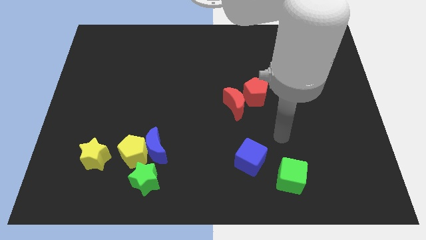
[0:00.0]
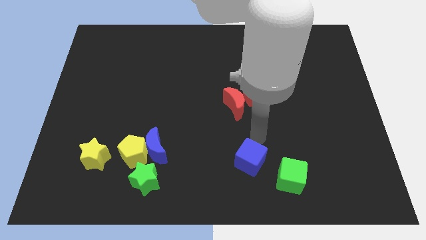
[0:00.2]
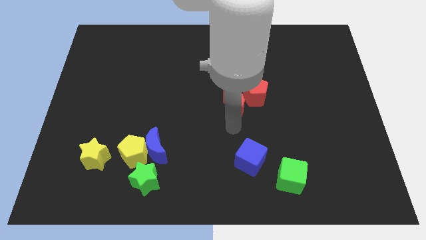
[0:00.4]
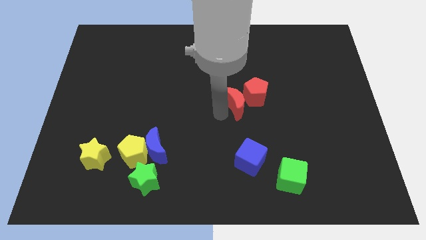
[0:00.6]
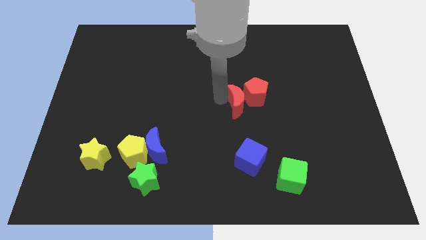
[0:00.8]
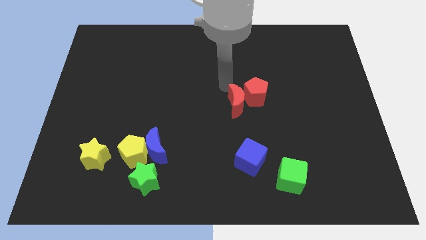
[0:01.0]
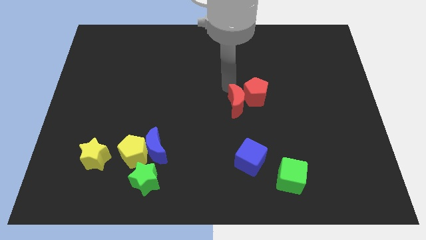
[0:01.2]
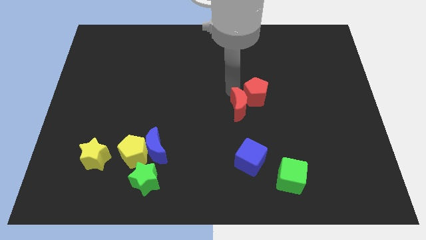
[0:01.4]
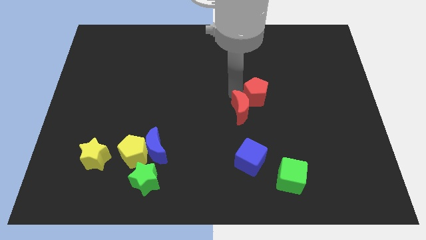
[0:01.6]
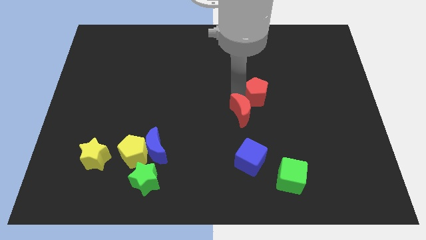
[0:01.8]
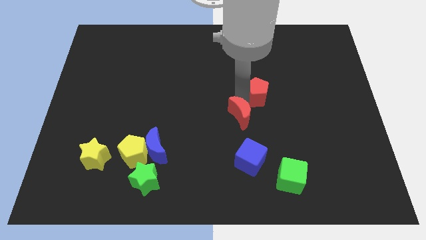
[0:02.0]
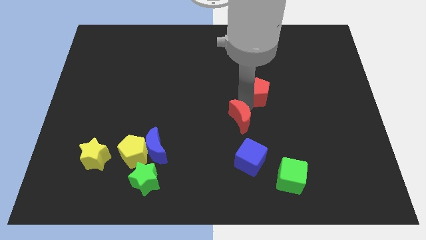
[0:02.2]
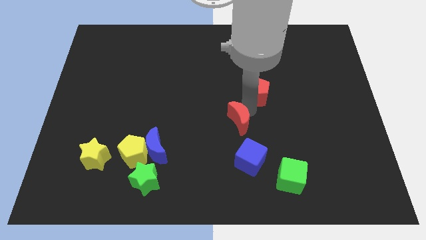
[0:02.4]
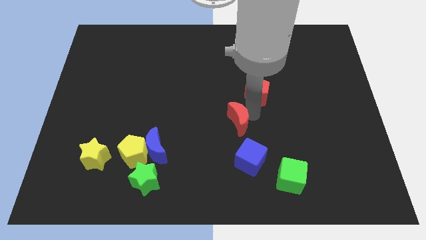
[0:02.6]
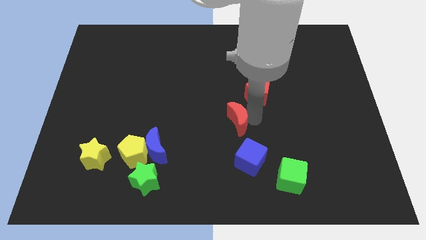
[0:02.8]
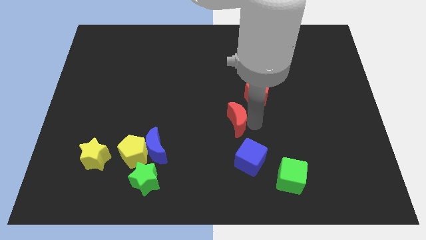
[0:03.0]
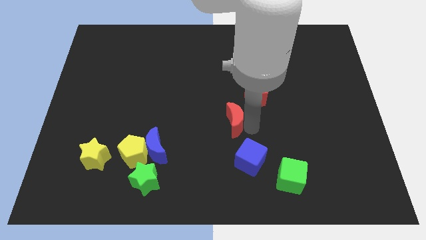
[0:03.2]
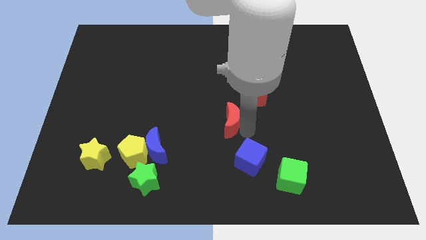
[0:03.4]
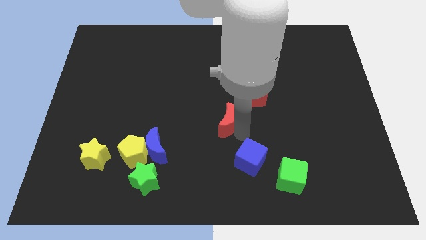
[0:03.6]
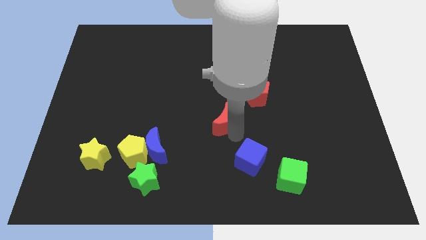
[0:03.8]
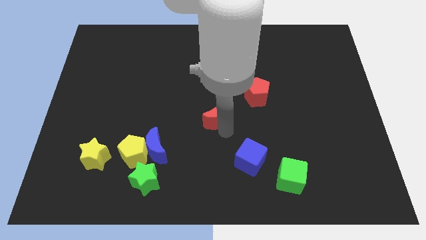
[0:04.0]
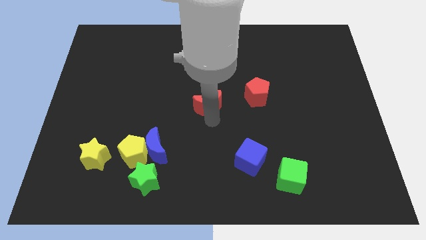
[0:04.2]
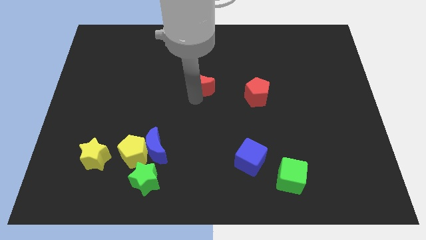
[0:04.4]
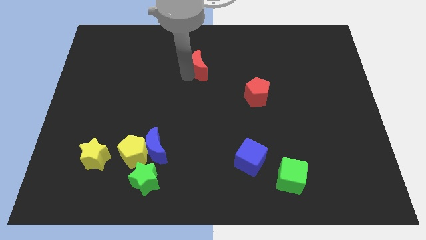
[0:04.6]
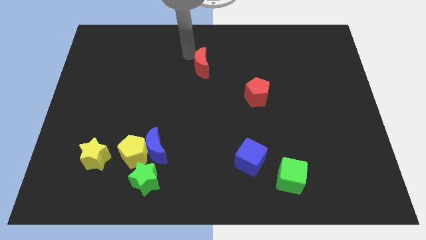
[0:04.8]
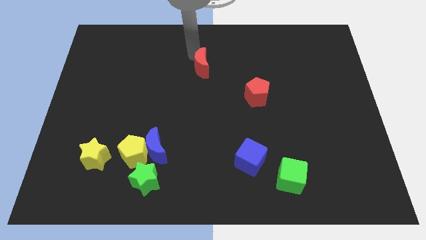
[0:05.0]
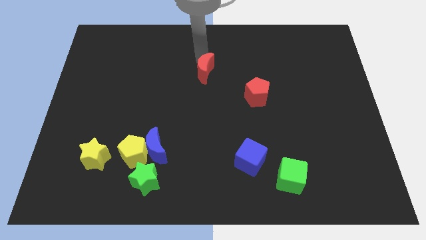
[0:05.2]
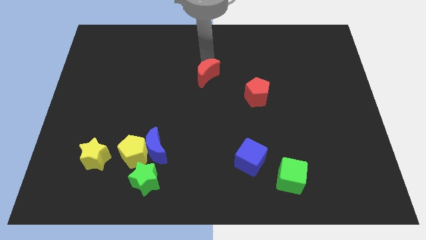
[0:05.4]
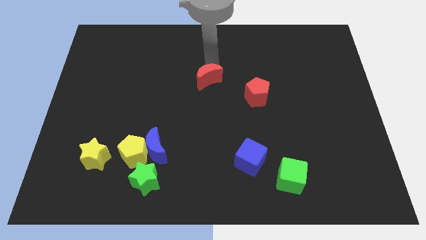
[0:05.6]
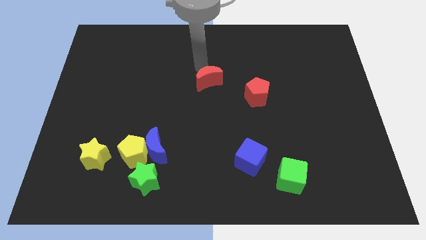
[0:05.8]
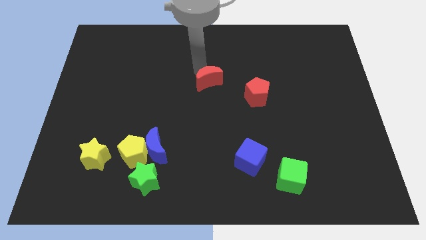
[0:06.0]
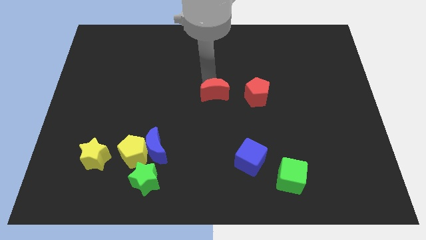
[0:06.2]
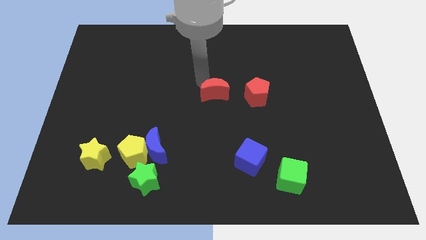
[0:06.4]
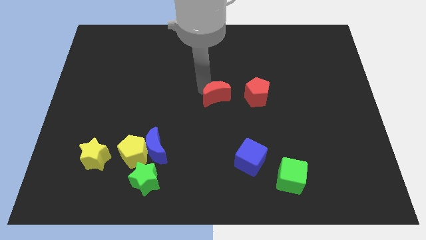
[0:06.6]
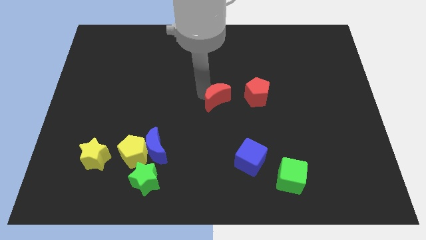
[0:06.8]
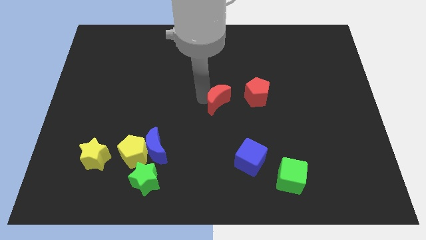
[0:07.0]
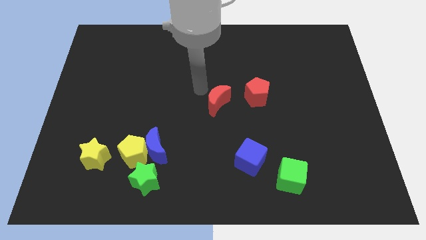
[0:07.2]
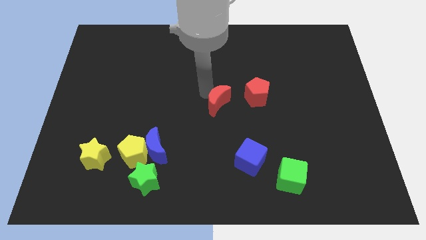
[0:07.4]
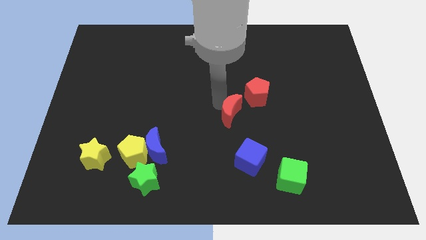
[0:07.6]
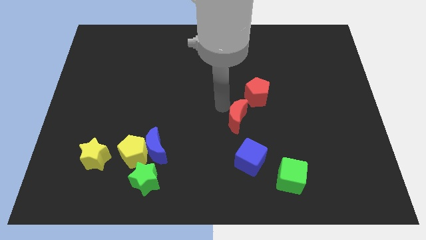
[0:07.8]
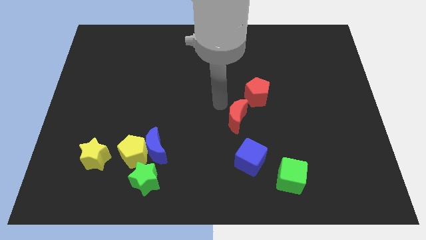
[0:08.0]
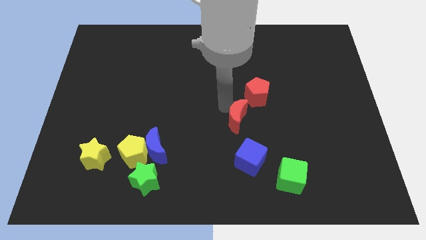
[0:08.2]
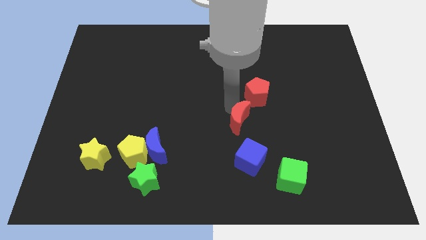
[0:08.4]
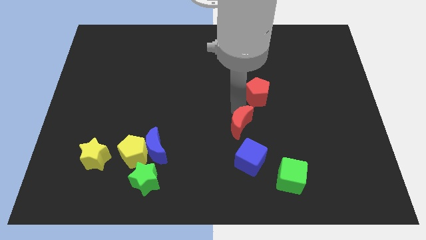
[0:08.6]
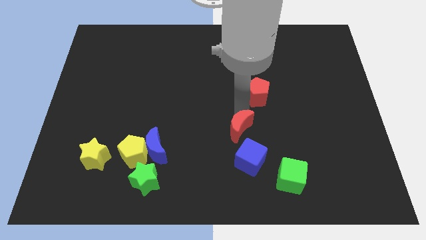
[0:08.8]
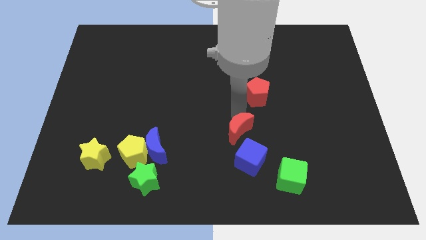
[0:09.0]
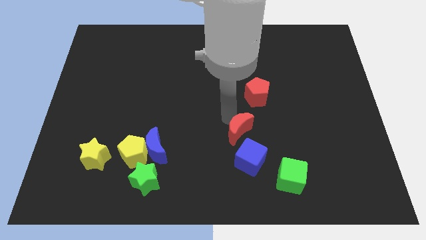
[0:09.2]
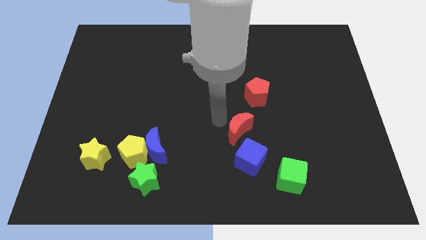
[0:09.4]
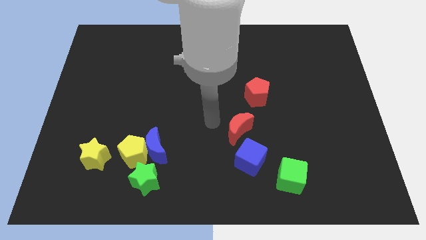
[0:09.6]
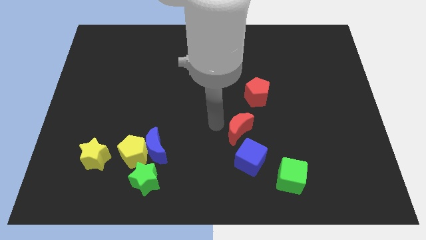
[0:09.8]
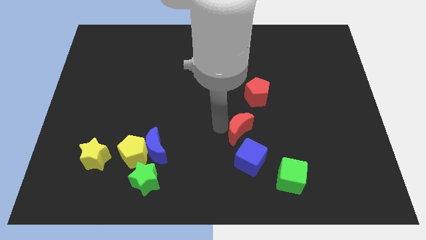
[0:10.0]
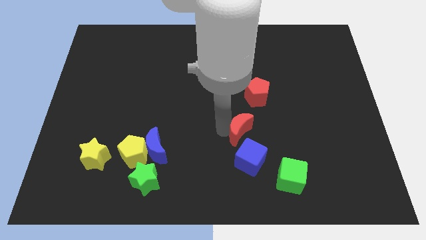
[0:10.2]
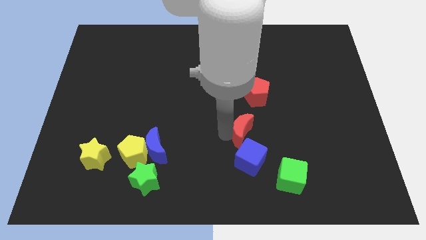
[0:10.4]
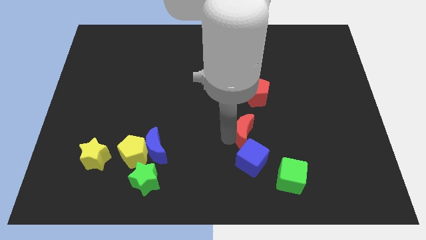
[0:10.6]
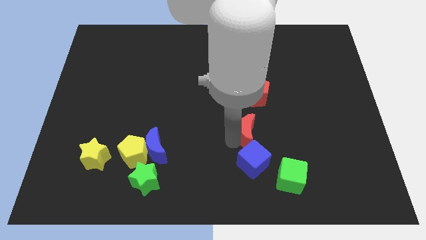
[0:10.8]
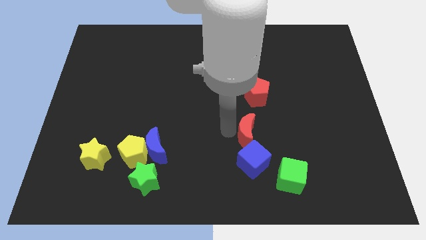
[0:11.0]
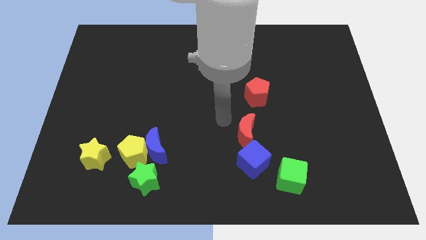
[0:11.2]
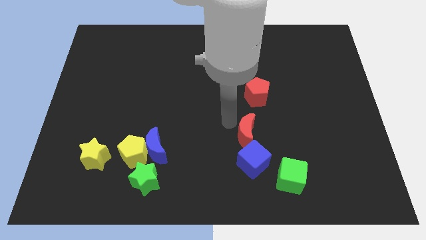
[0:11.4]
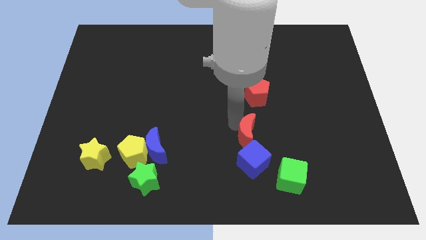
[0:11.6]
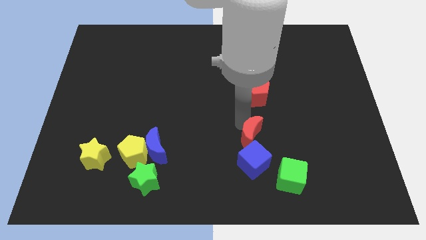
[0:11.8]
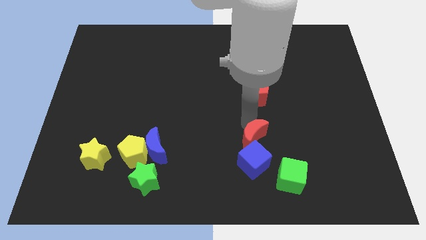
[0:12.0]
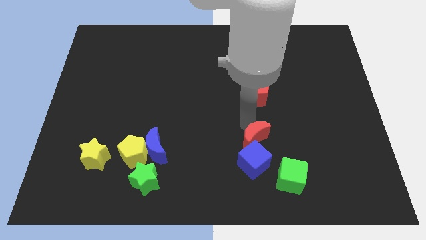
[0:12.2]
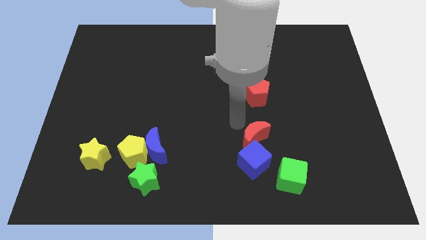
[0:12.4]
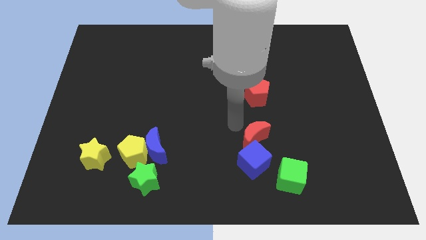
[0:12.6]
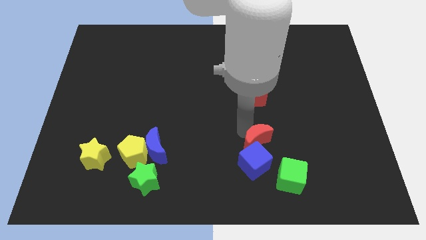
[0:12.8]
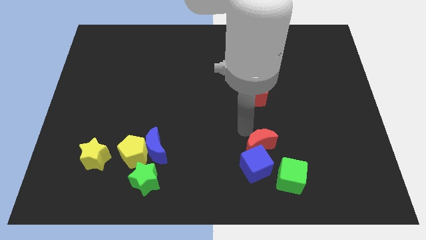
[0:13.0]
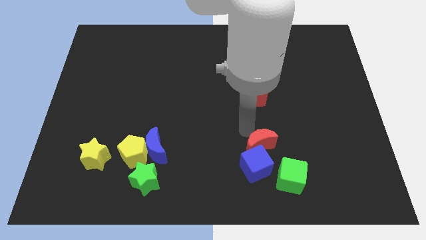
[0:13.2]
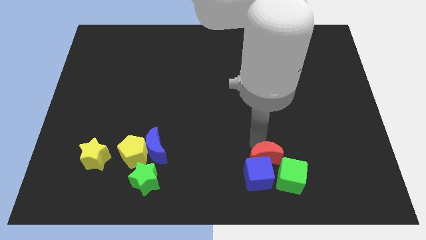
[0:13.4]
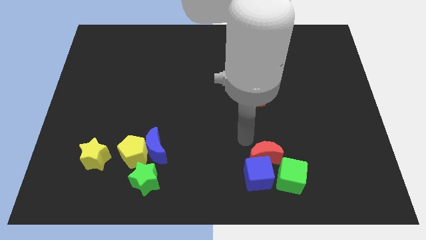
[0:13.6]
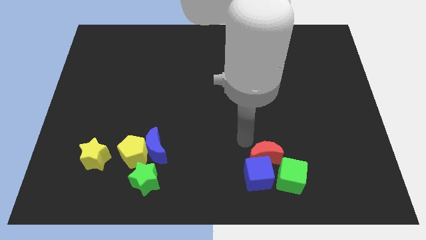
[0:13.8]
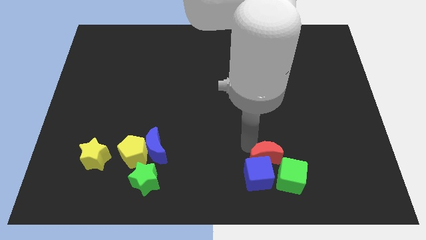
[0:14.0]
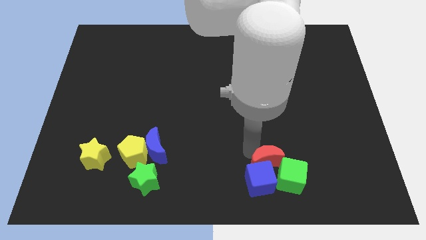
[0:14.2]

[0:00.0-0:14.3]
slide the red moon to the green cube

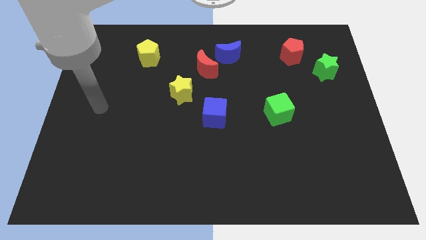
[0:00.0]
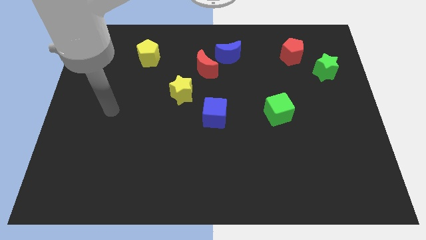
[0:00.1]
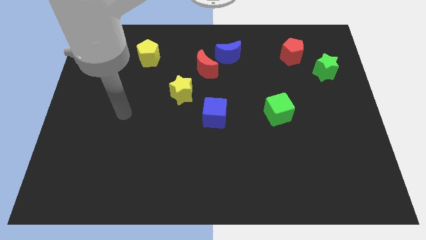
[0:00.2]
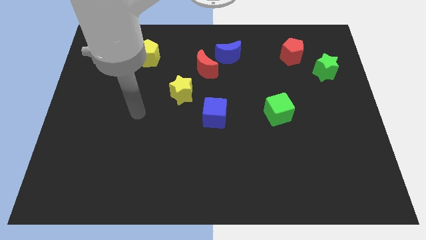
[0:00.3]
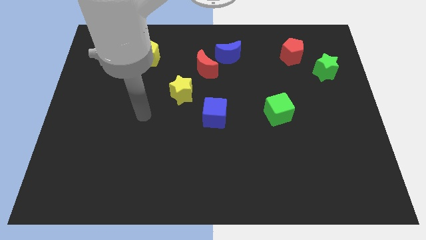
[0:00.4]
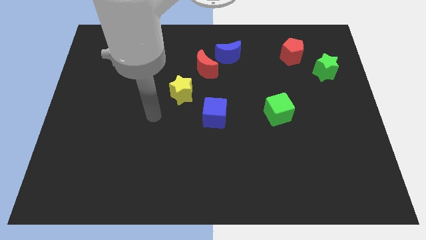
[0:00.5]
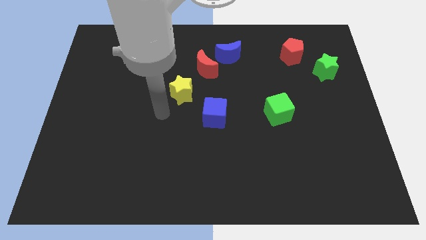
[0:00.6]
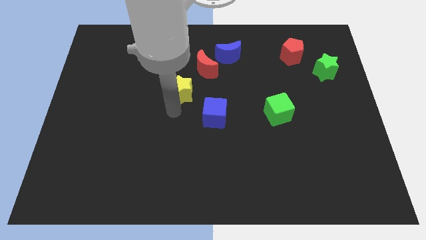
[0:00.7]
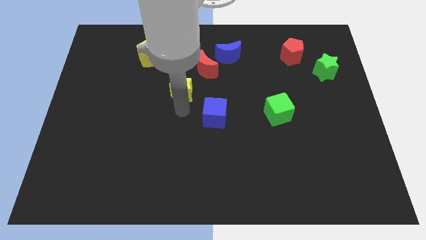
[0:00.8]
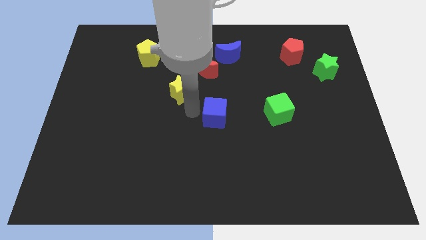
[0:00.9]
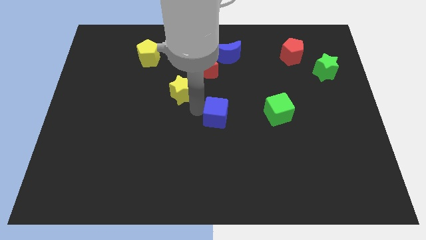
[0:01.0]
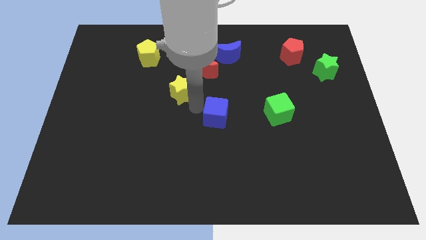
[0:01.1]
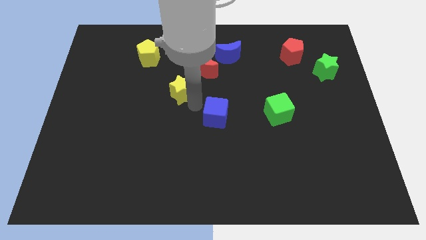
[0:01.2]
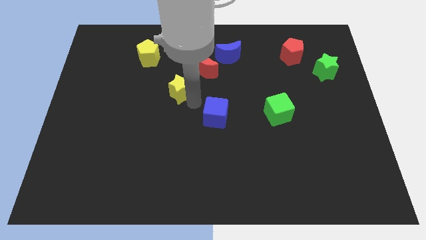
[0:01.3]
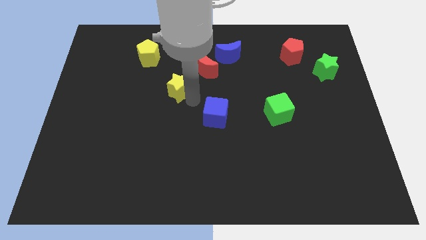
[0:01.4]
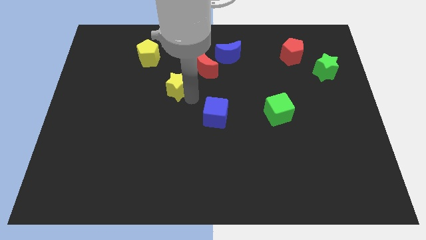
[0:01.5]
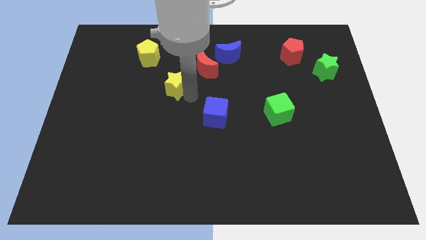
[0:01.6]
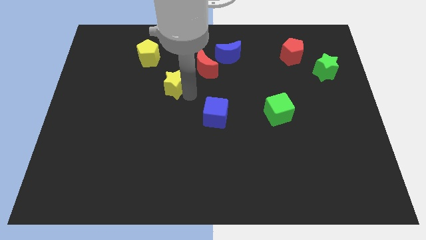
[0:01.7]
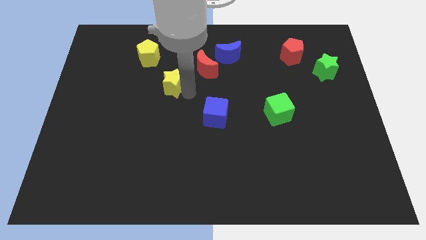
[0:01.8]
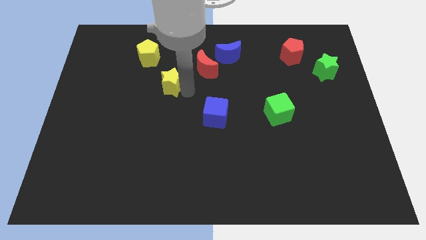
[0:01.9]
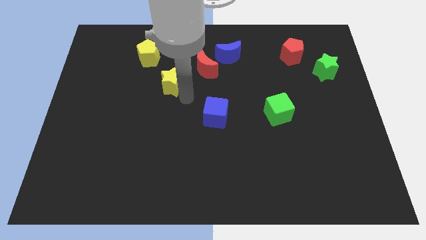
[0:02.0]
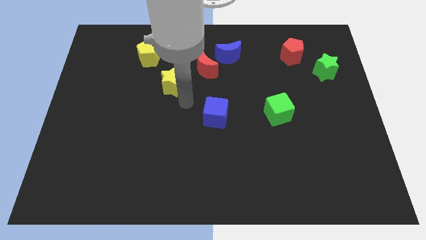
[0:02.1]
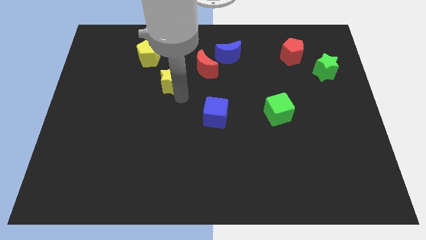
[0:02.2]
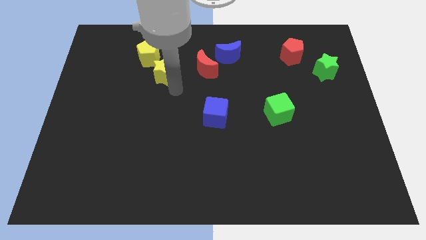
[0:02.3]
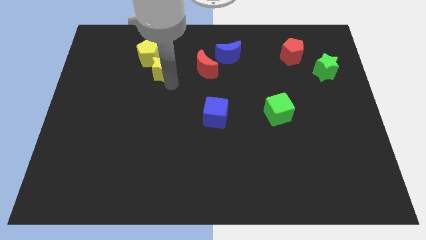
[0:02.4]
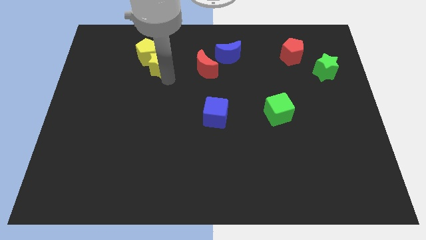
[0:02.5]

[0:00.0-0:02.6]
put the yellow star next to the yellow pentagon
